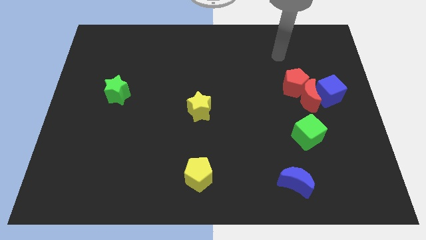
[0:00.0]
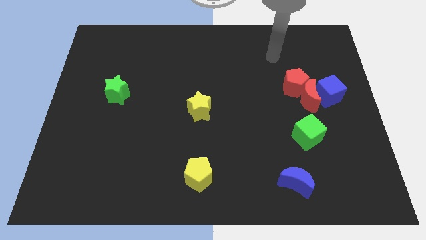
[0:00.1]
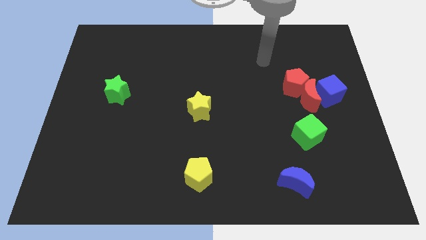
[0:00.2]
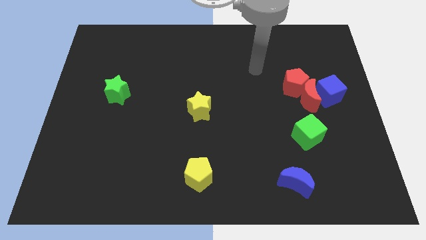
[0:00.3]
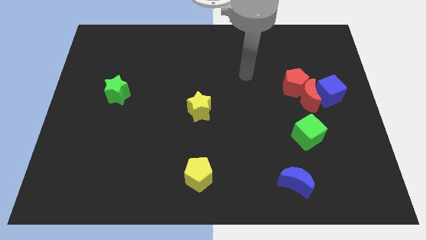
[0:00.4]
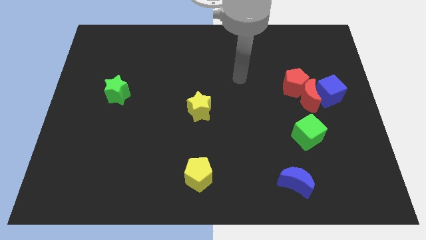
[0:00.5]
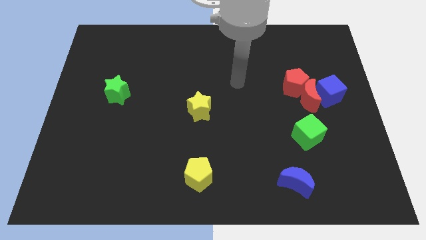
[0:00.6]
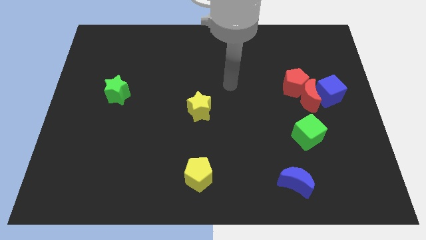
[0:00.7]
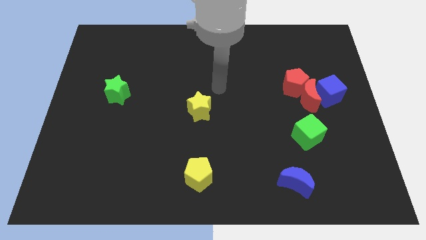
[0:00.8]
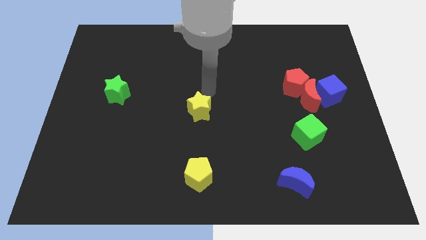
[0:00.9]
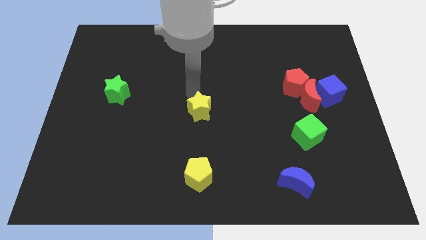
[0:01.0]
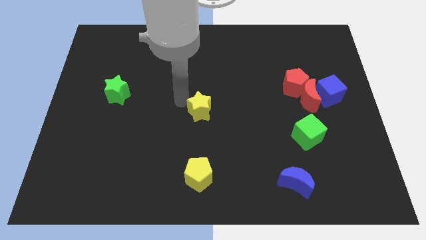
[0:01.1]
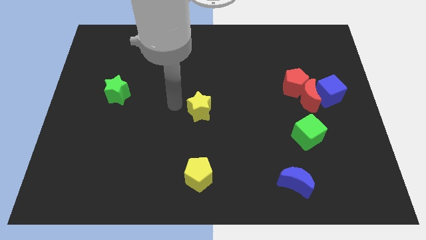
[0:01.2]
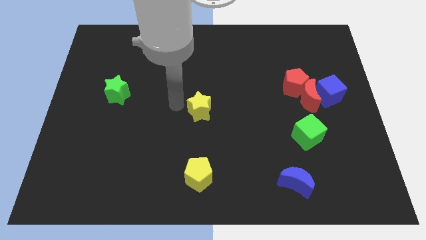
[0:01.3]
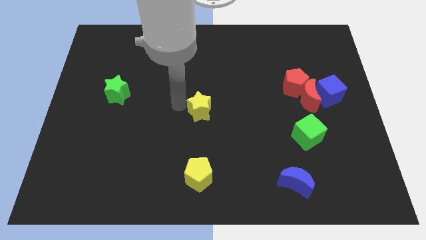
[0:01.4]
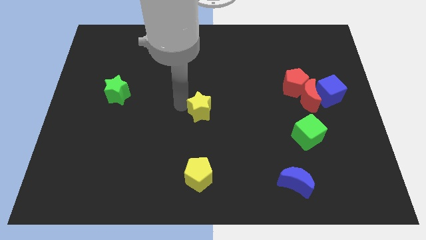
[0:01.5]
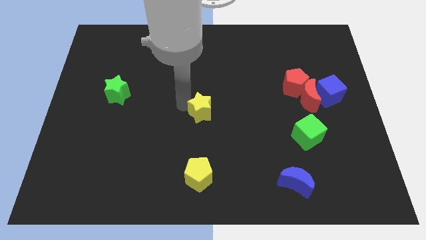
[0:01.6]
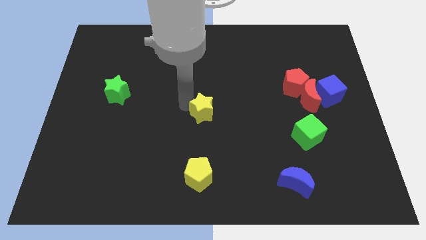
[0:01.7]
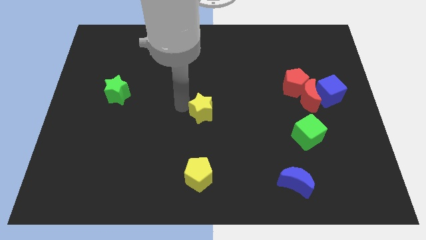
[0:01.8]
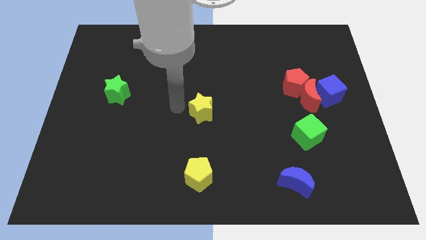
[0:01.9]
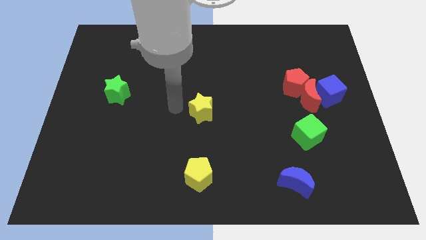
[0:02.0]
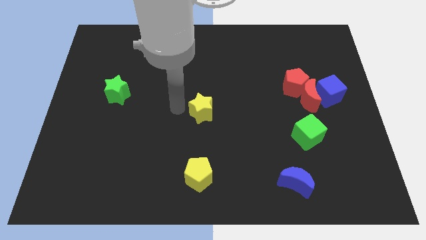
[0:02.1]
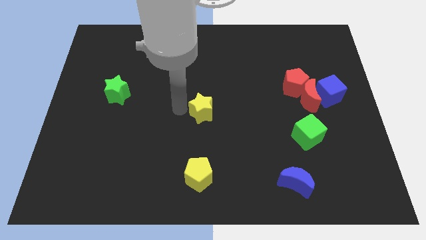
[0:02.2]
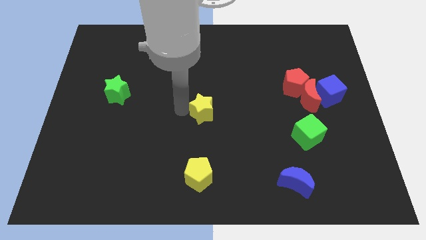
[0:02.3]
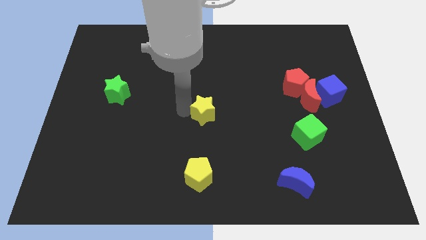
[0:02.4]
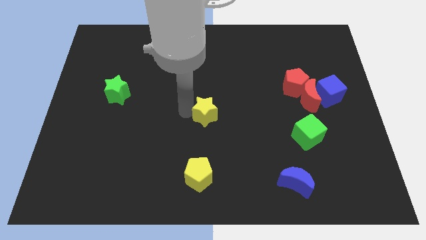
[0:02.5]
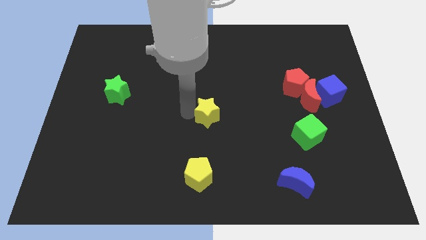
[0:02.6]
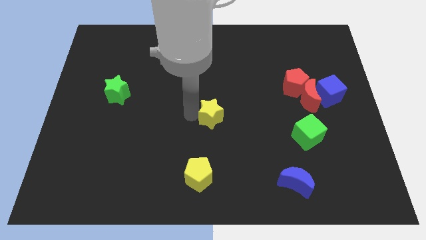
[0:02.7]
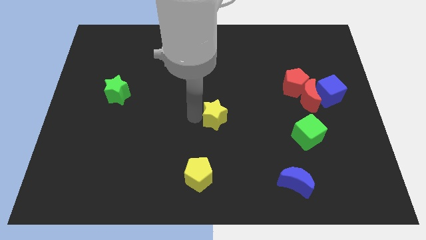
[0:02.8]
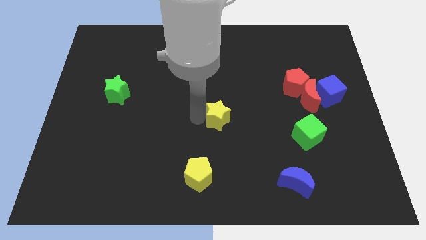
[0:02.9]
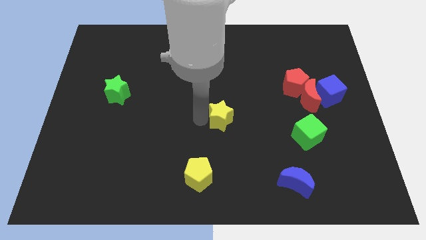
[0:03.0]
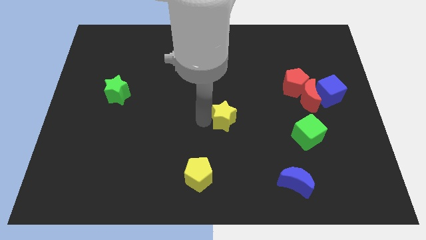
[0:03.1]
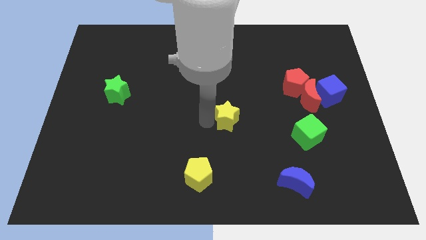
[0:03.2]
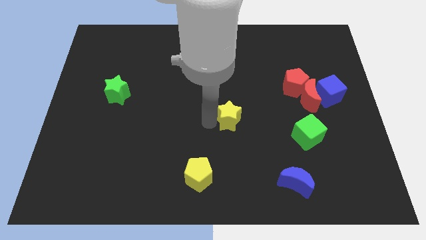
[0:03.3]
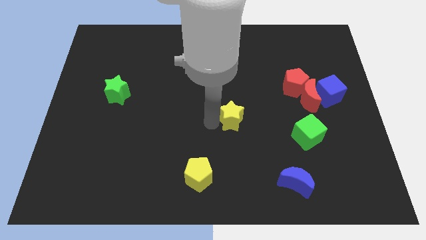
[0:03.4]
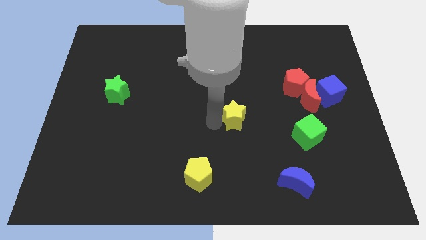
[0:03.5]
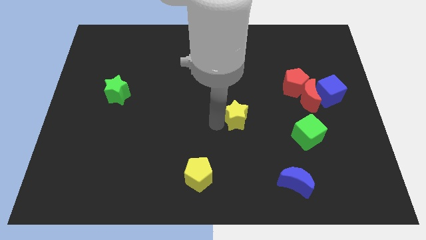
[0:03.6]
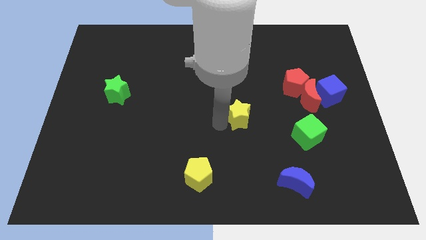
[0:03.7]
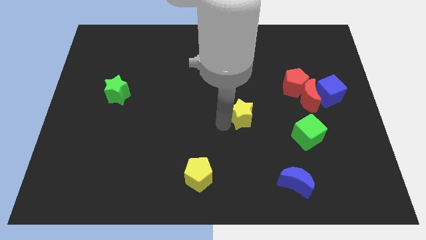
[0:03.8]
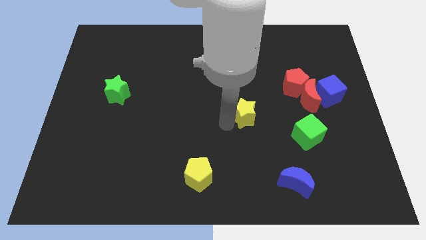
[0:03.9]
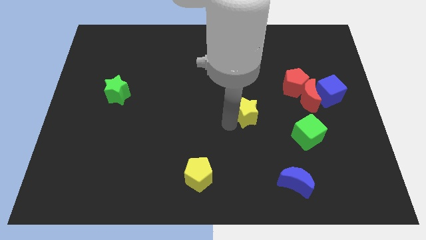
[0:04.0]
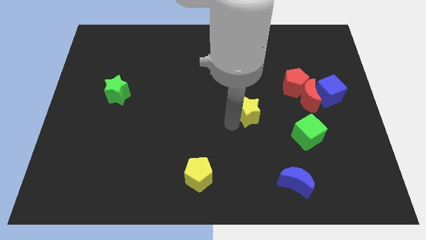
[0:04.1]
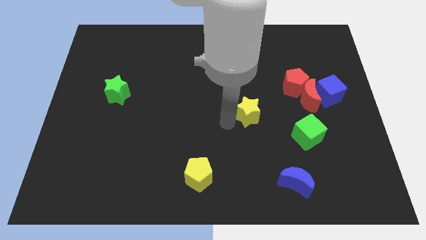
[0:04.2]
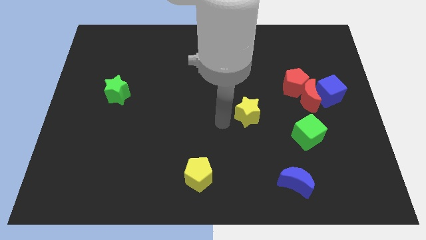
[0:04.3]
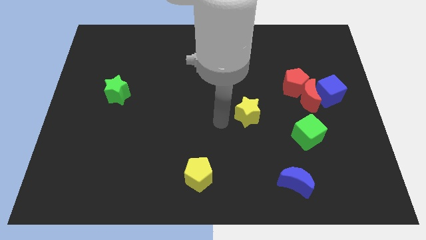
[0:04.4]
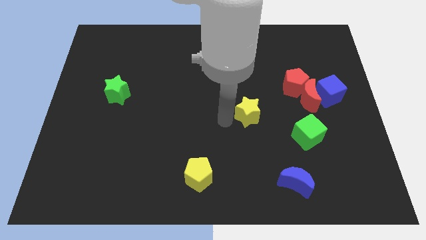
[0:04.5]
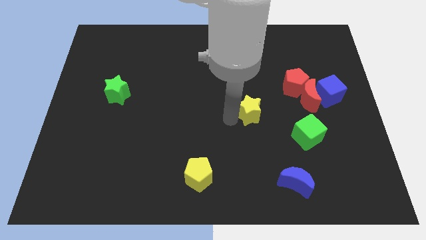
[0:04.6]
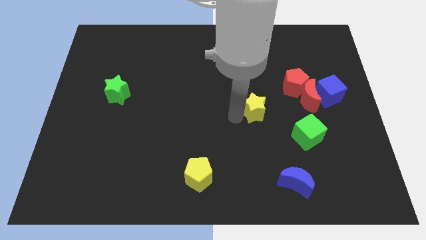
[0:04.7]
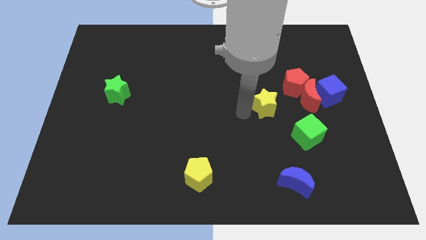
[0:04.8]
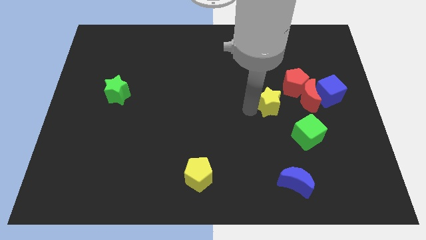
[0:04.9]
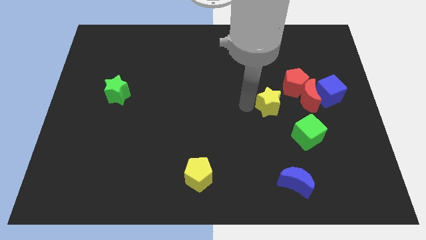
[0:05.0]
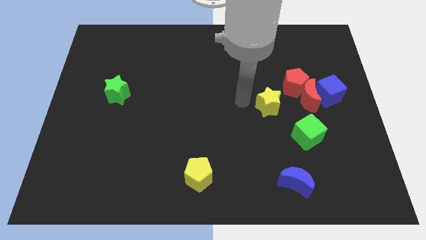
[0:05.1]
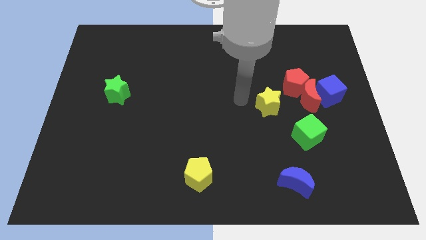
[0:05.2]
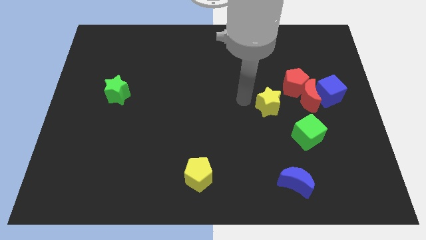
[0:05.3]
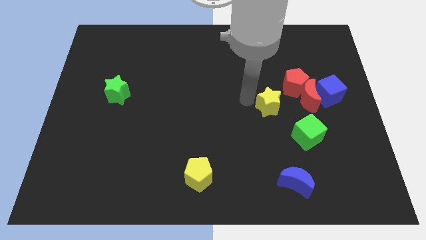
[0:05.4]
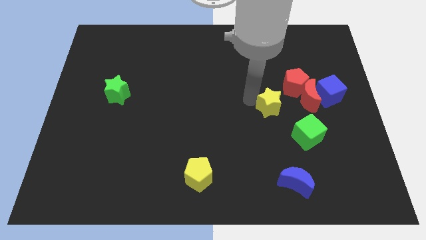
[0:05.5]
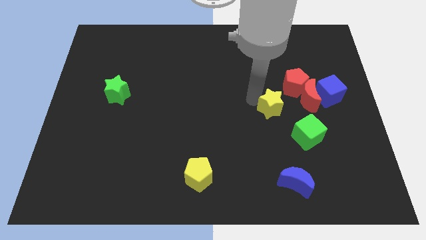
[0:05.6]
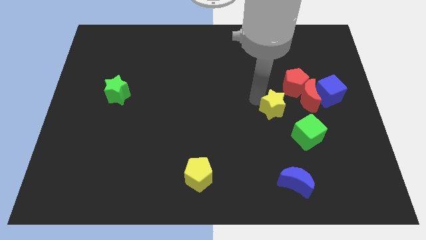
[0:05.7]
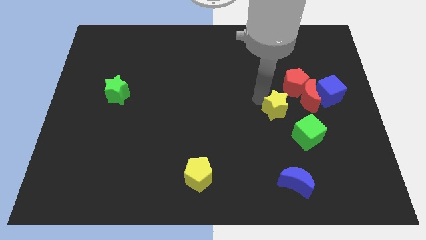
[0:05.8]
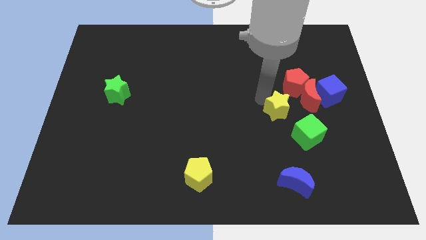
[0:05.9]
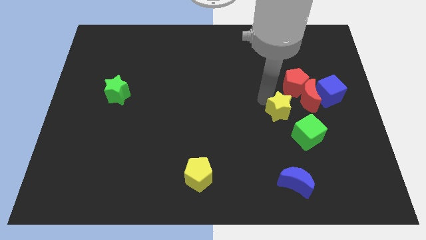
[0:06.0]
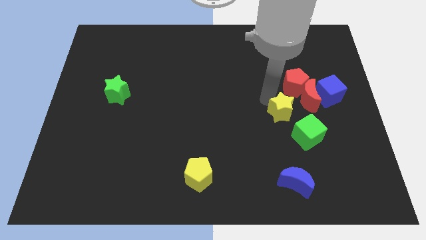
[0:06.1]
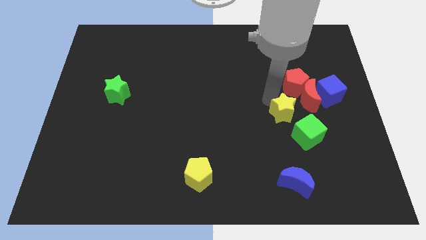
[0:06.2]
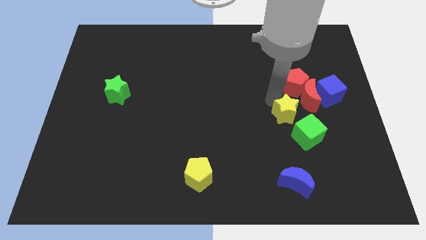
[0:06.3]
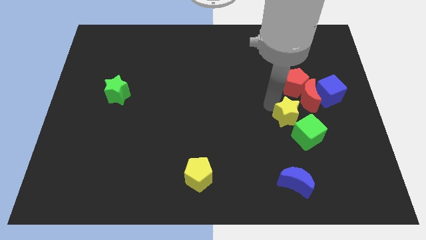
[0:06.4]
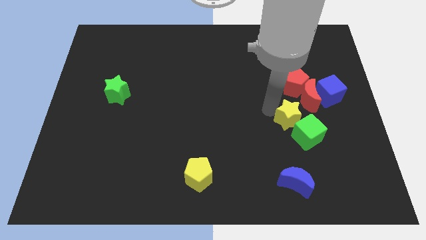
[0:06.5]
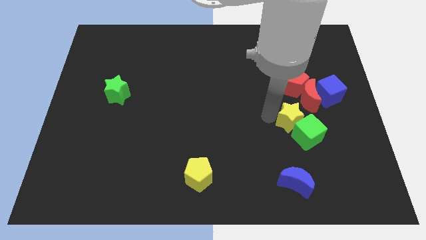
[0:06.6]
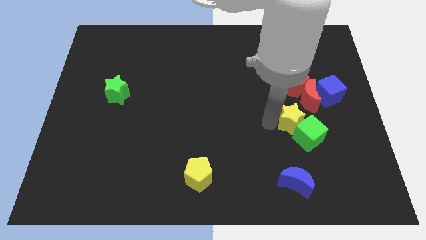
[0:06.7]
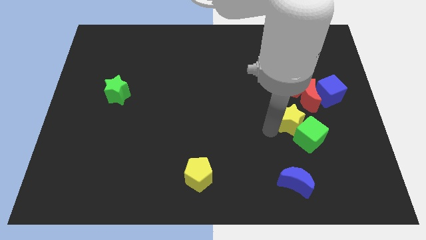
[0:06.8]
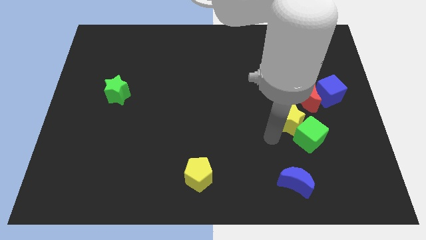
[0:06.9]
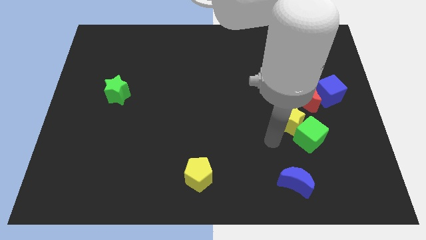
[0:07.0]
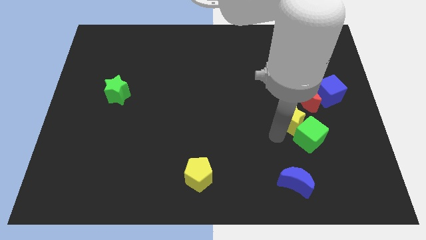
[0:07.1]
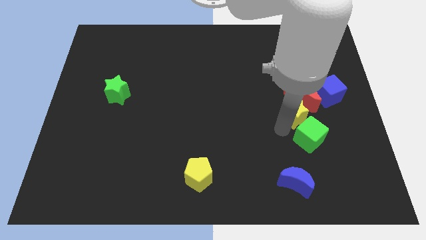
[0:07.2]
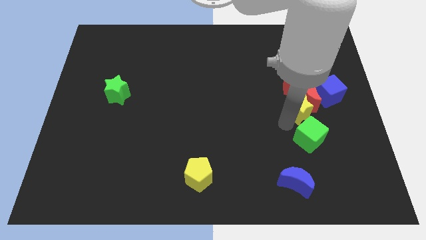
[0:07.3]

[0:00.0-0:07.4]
put the yellow star to the red moon
